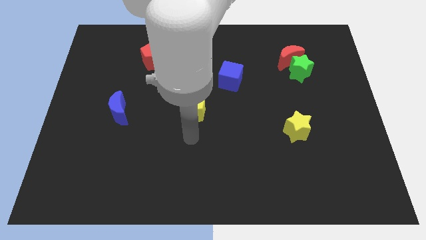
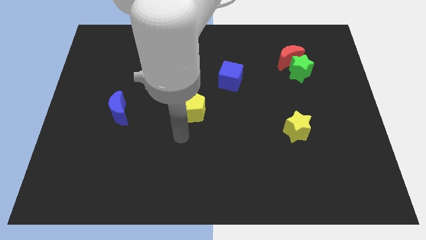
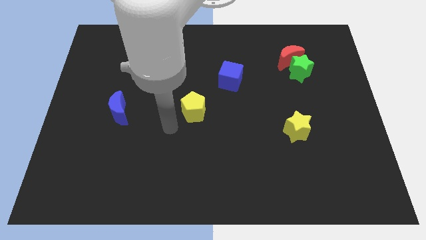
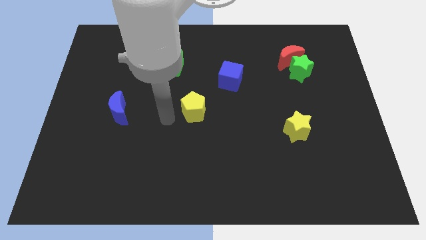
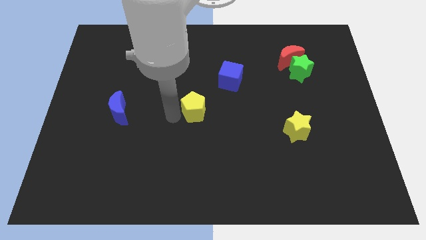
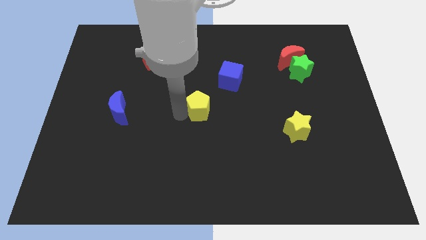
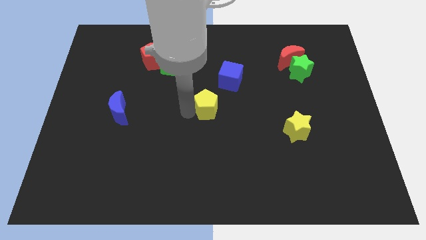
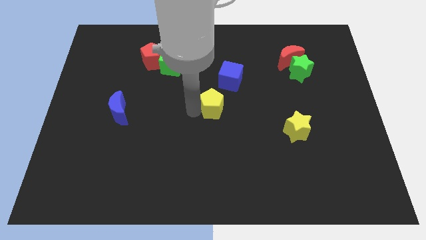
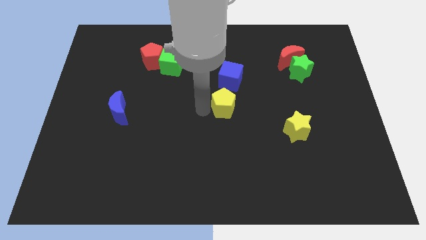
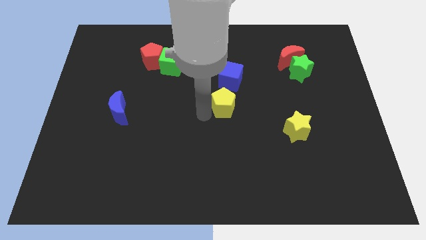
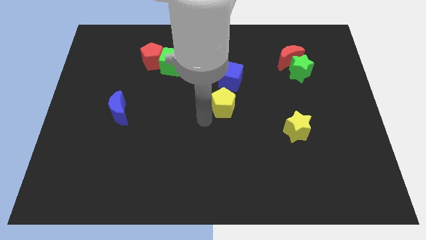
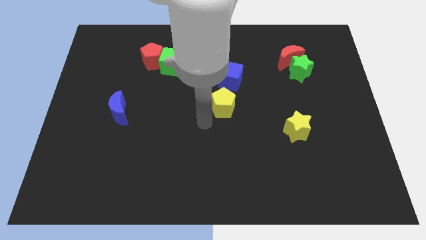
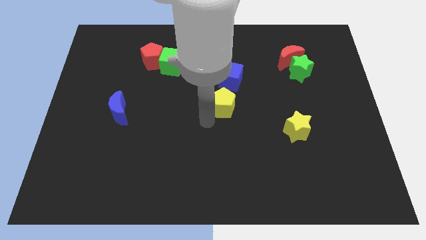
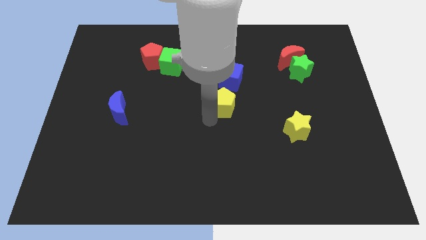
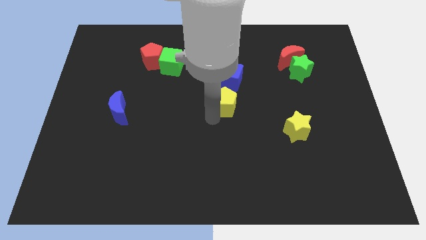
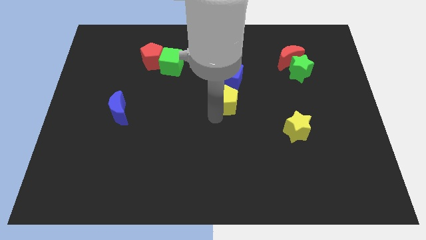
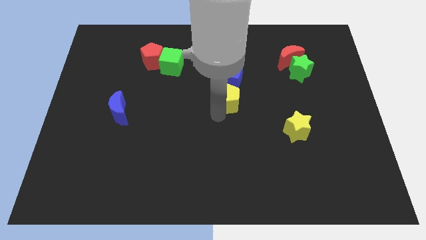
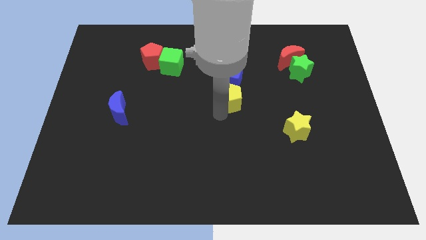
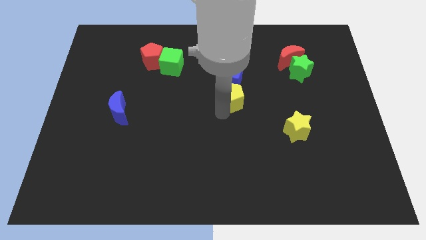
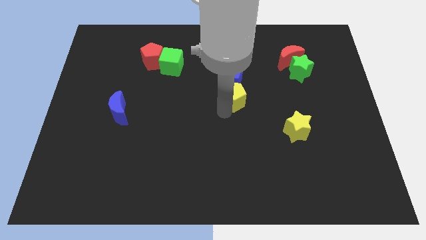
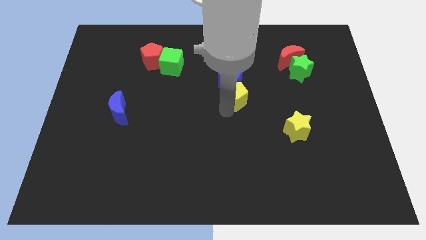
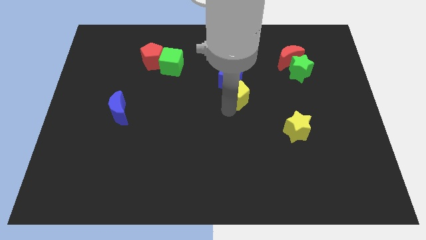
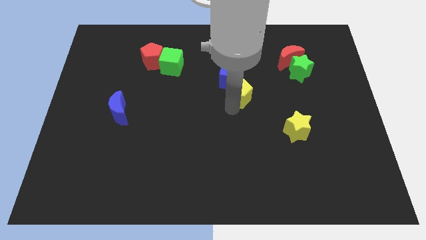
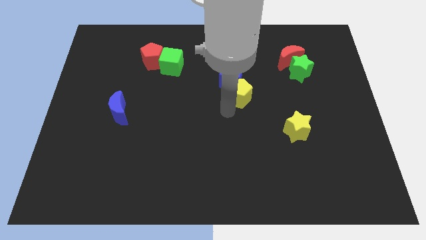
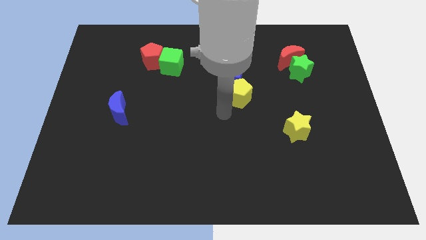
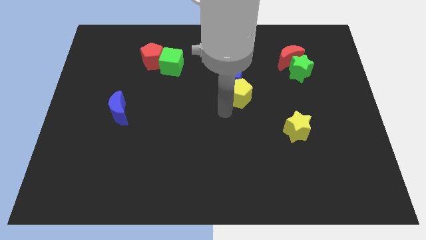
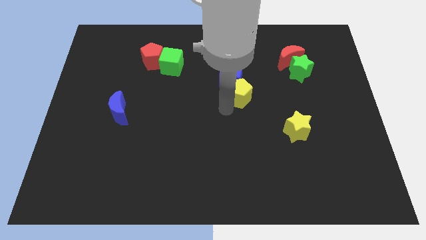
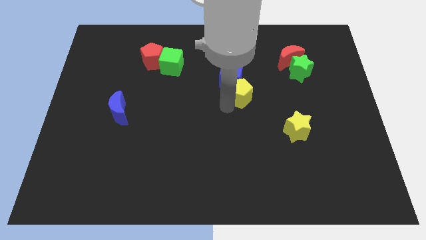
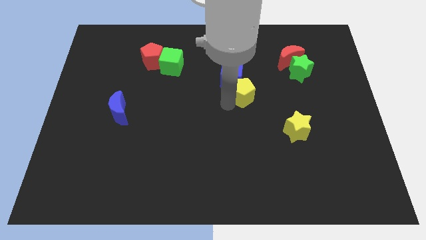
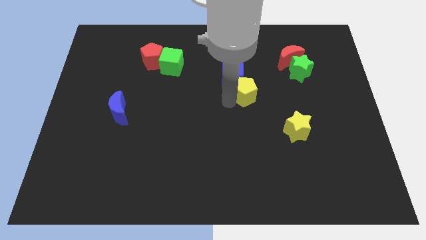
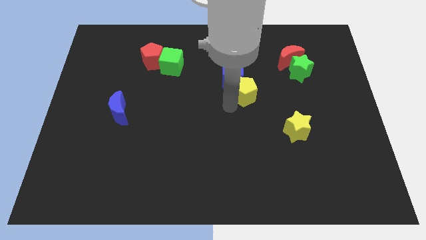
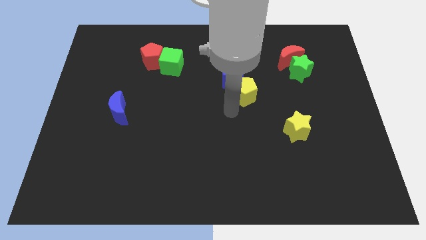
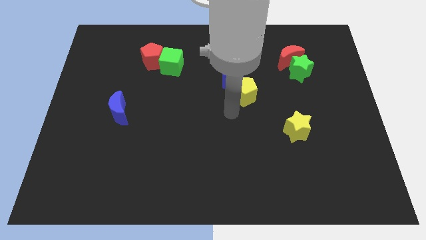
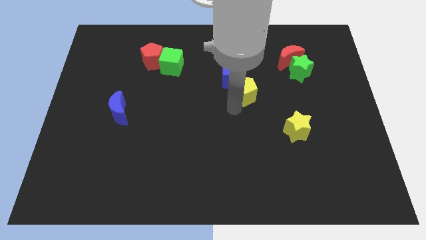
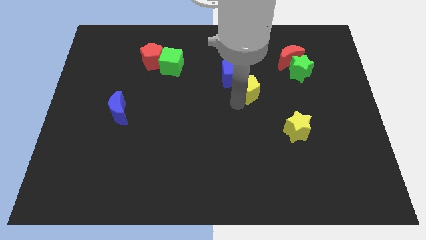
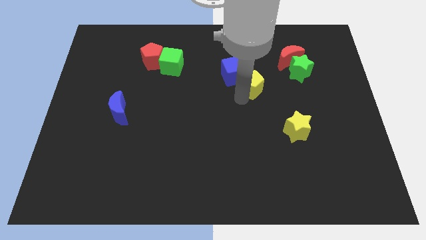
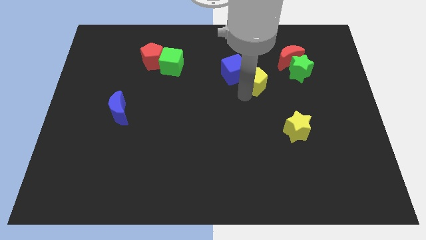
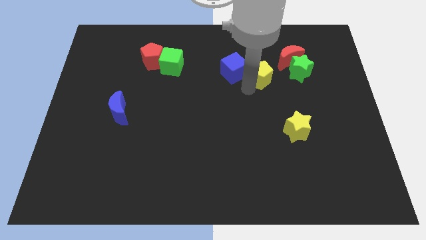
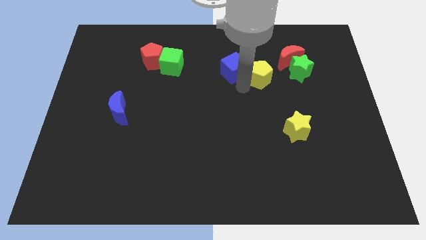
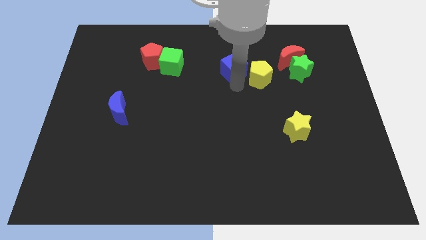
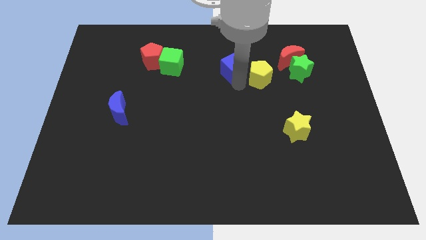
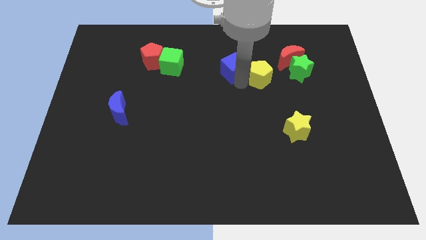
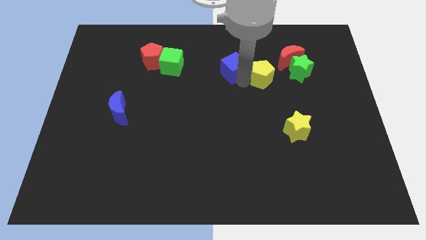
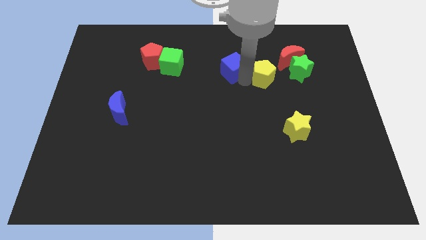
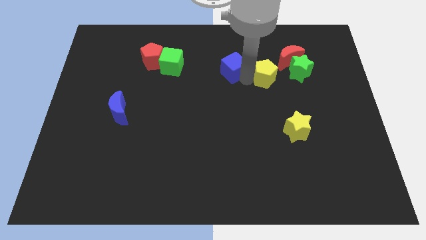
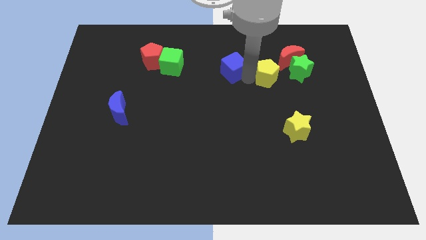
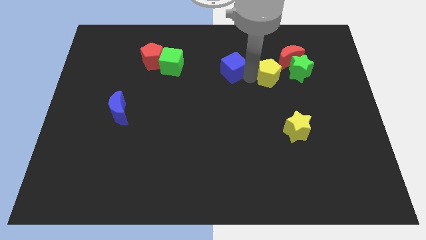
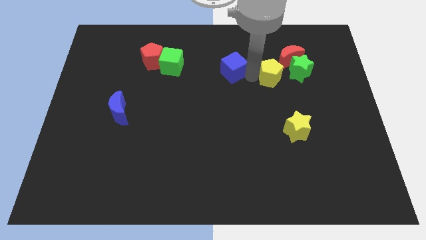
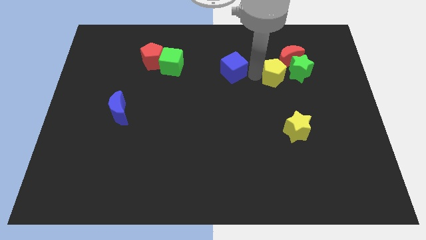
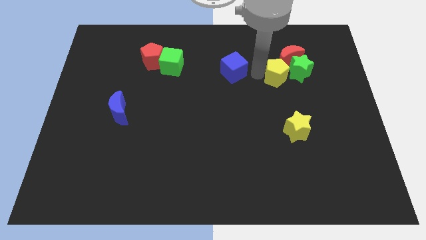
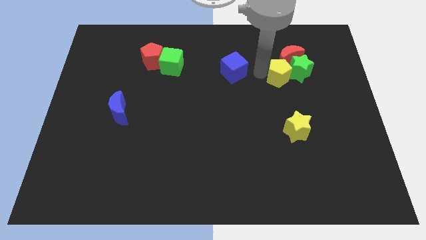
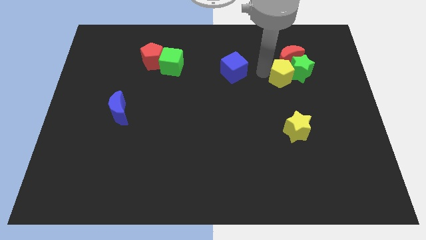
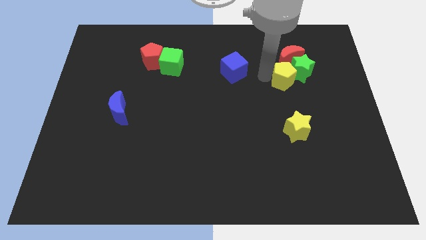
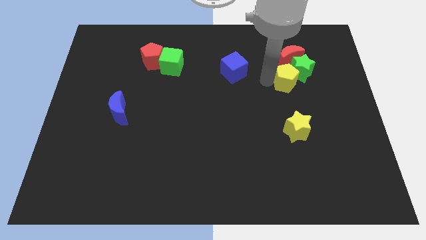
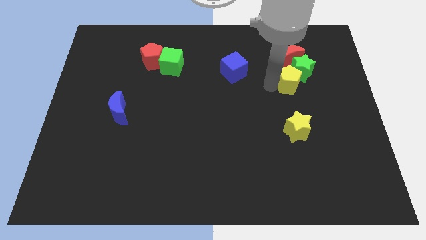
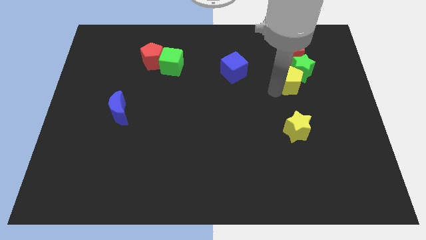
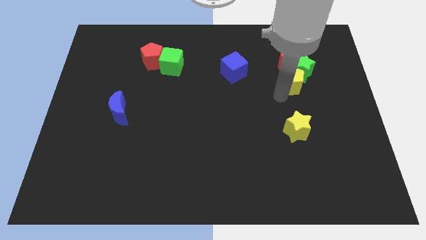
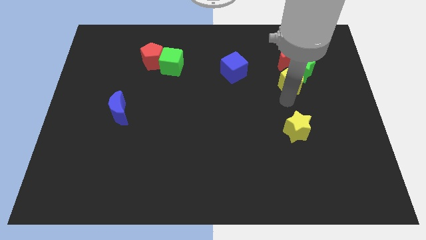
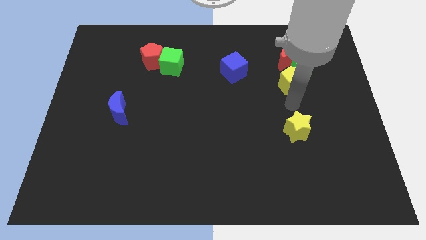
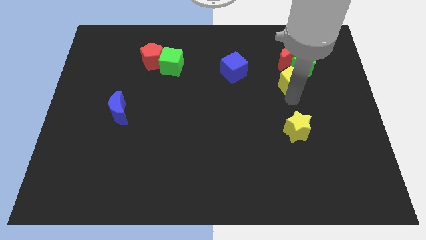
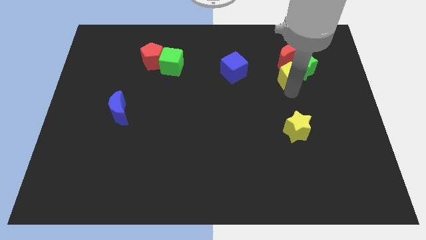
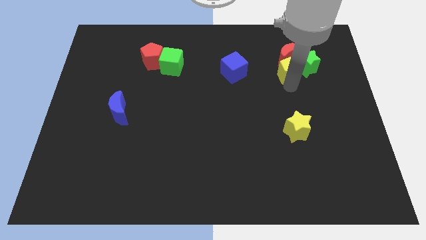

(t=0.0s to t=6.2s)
push the yellow pentagon towards the red moon
